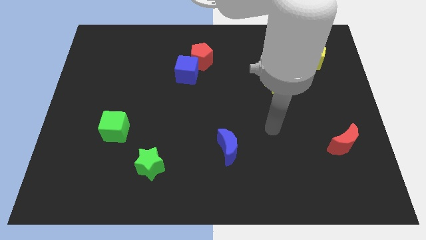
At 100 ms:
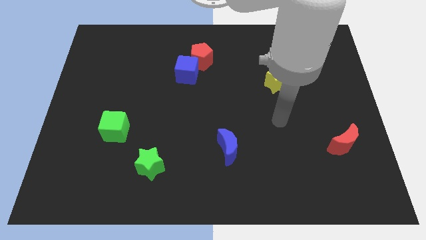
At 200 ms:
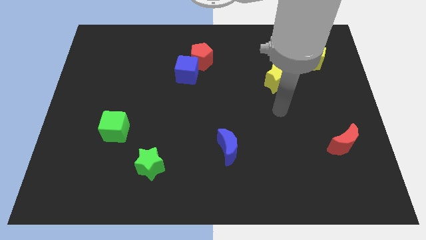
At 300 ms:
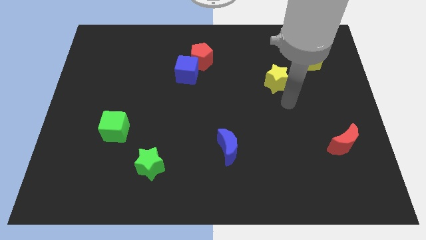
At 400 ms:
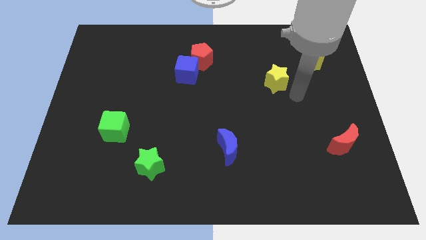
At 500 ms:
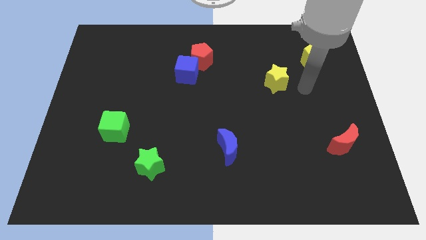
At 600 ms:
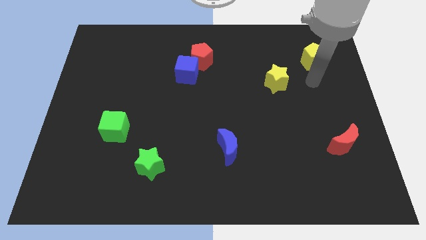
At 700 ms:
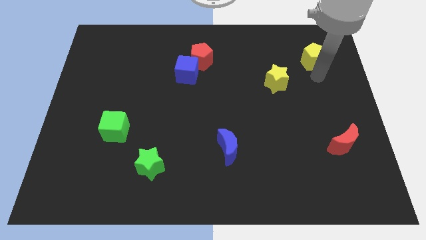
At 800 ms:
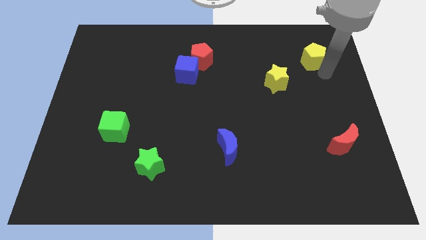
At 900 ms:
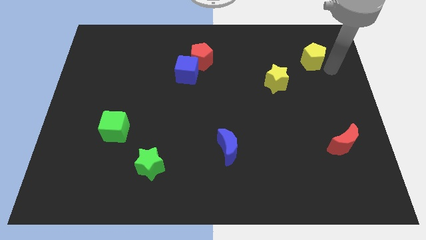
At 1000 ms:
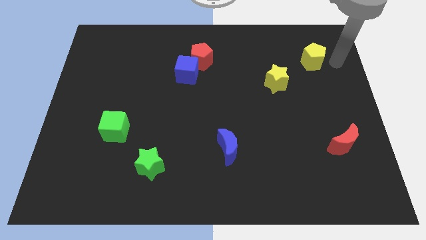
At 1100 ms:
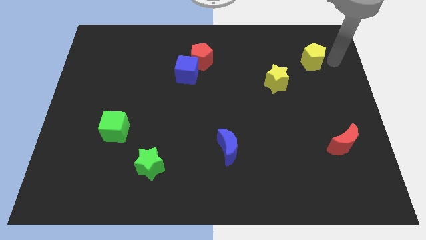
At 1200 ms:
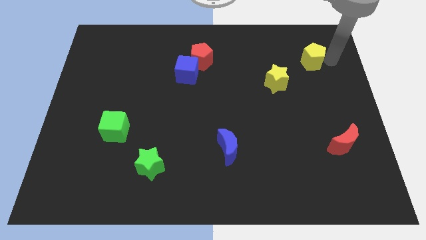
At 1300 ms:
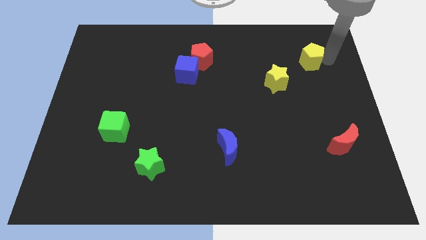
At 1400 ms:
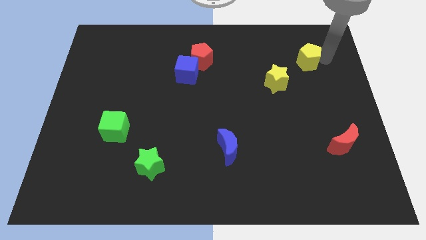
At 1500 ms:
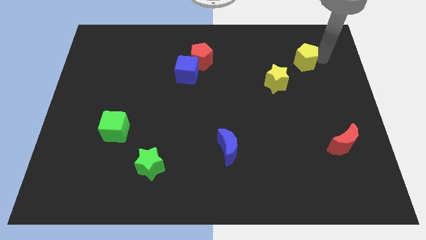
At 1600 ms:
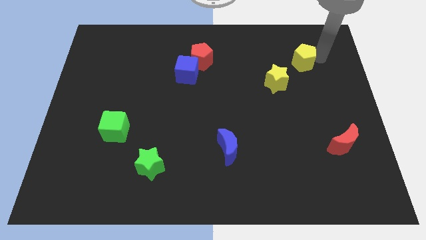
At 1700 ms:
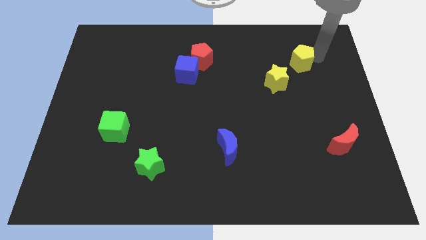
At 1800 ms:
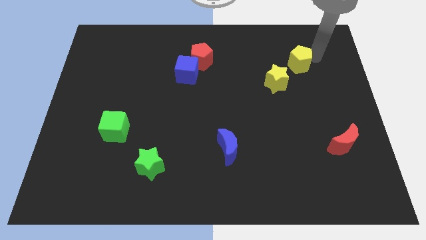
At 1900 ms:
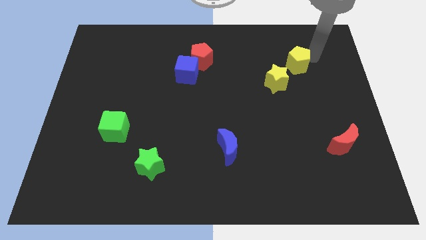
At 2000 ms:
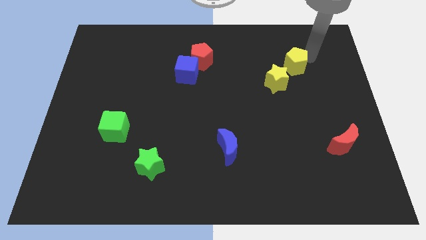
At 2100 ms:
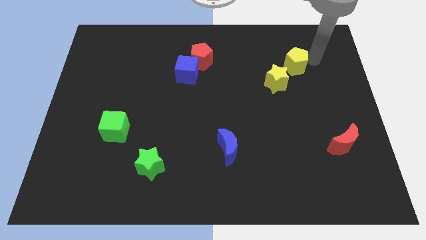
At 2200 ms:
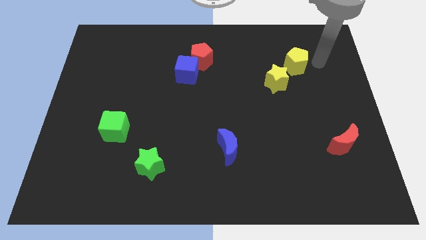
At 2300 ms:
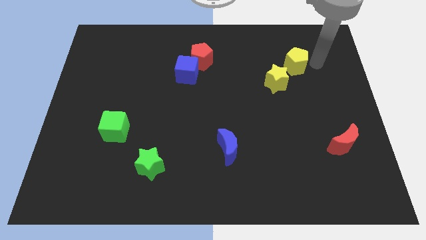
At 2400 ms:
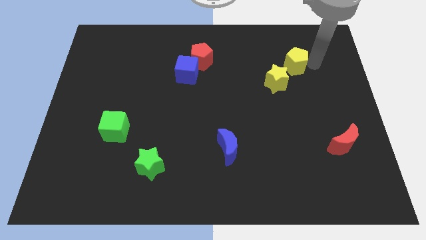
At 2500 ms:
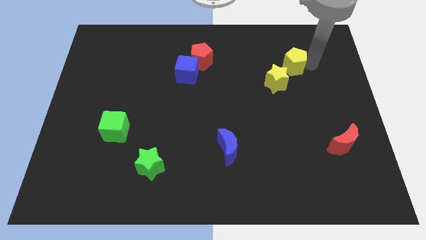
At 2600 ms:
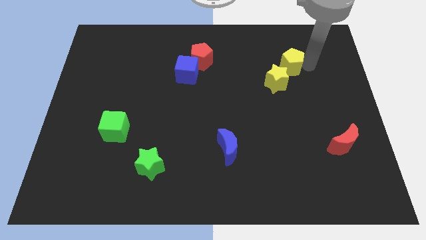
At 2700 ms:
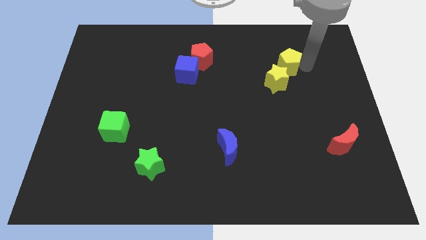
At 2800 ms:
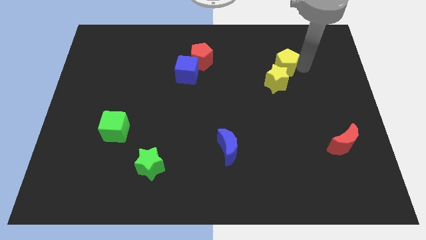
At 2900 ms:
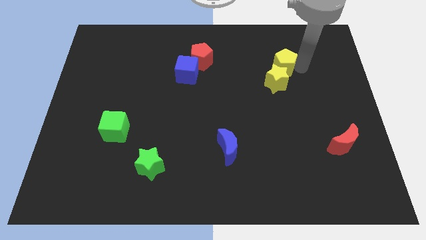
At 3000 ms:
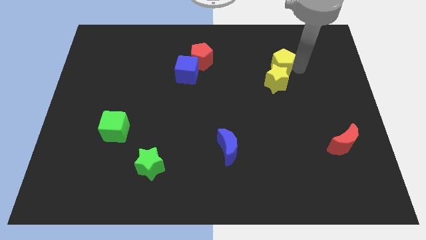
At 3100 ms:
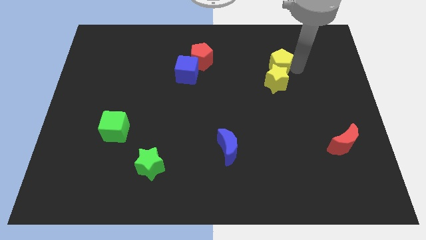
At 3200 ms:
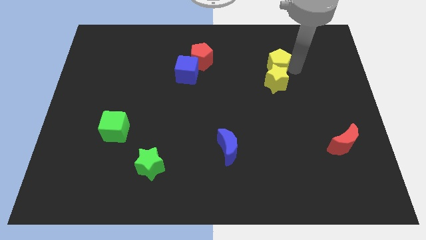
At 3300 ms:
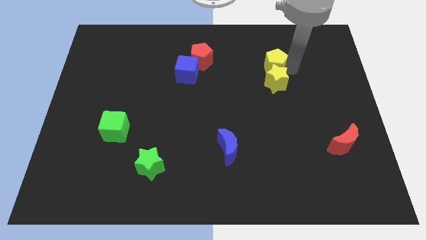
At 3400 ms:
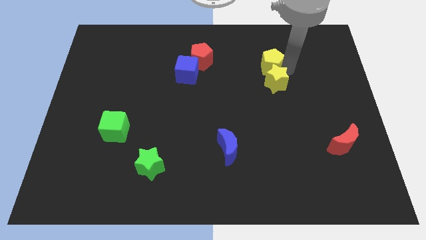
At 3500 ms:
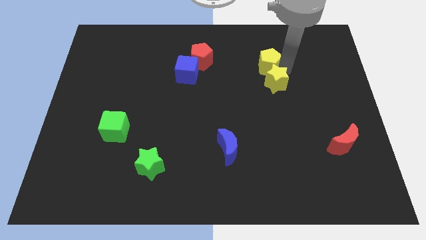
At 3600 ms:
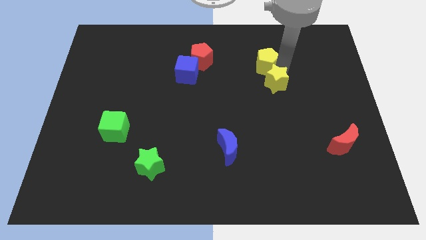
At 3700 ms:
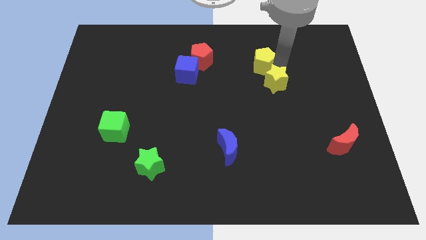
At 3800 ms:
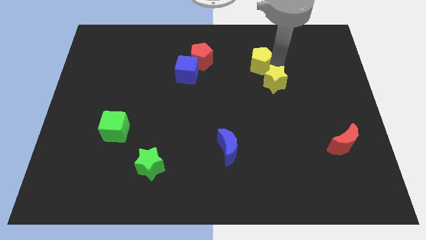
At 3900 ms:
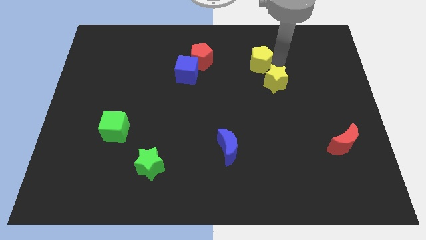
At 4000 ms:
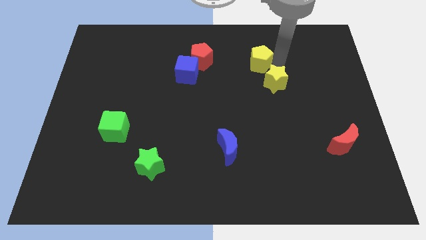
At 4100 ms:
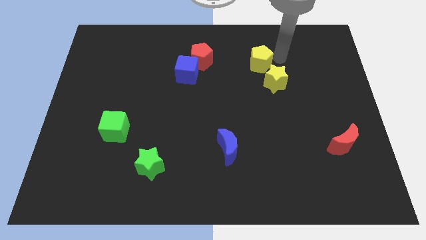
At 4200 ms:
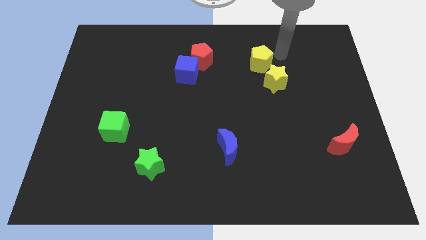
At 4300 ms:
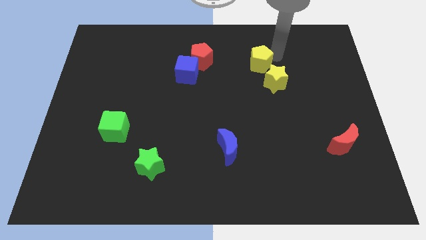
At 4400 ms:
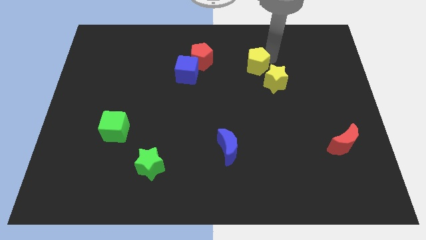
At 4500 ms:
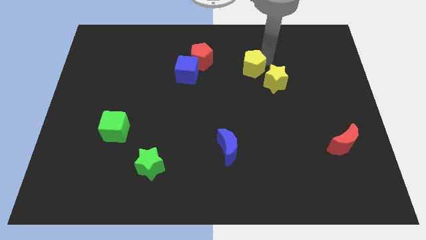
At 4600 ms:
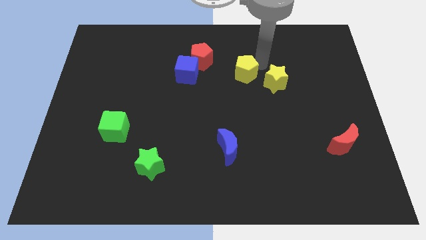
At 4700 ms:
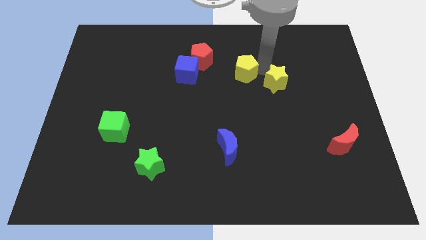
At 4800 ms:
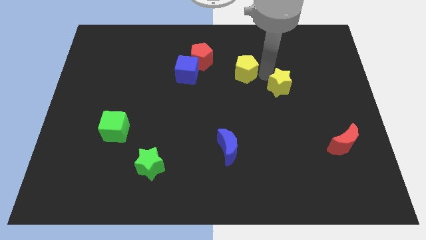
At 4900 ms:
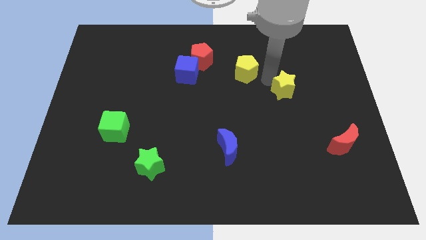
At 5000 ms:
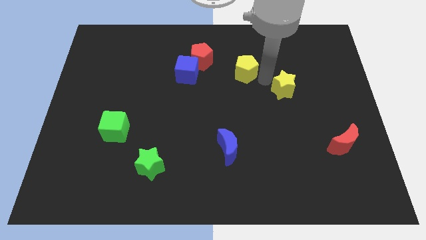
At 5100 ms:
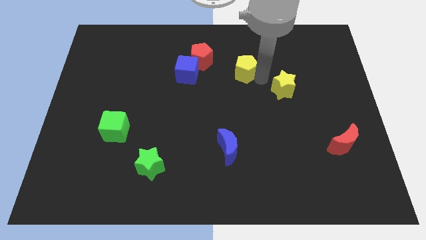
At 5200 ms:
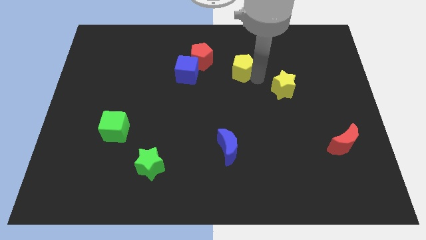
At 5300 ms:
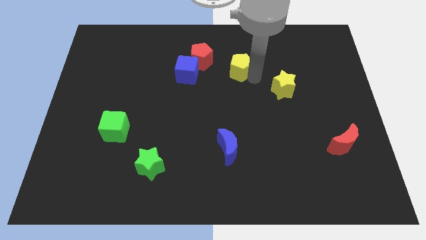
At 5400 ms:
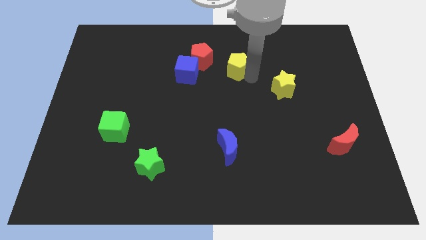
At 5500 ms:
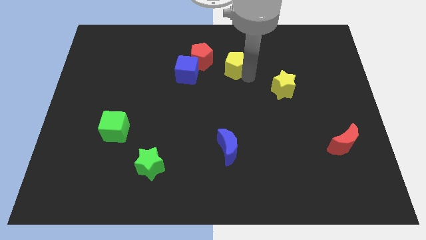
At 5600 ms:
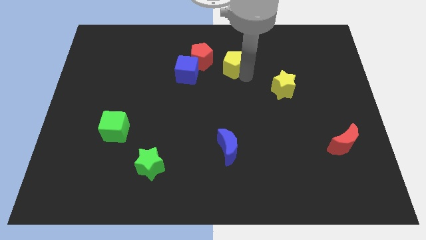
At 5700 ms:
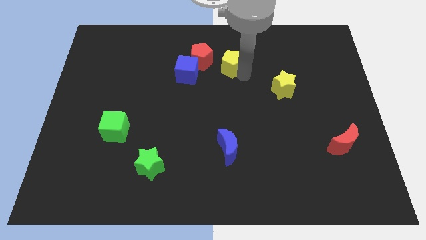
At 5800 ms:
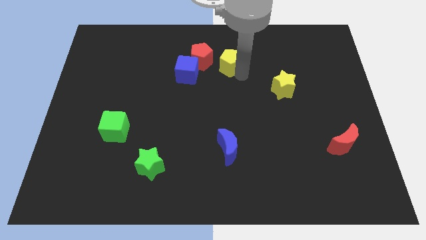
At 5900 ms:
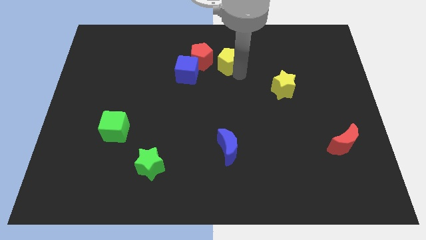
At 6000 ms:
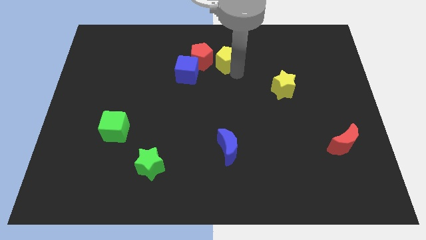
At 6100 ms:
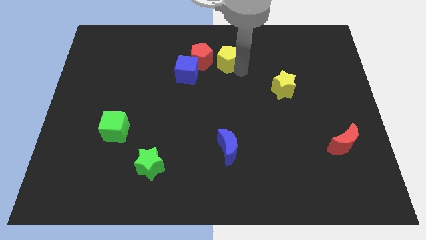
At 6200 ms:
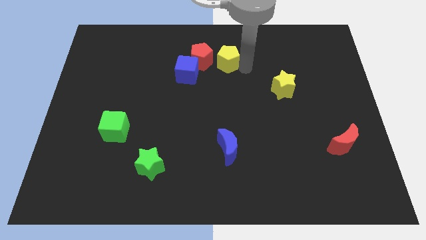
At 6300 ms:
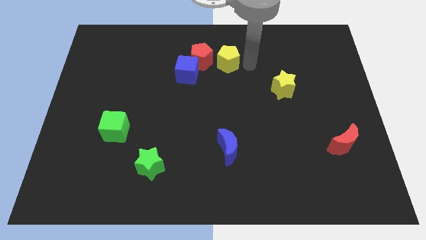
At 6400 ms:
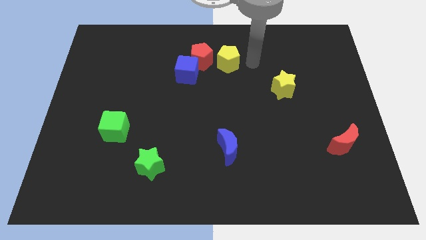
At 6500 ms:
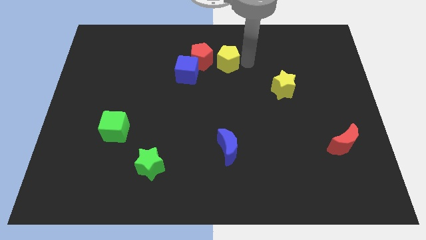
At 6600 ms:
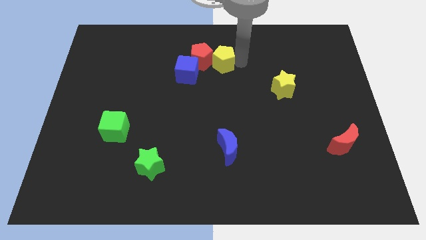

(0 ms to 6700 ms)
put the yellow pentagon next to the red pentagon

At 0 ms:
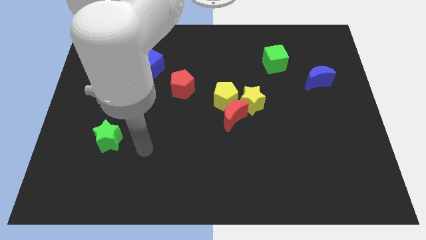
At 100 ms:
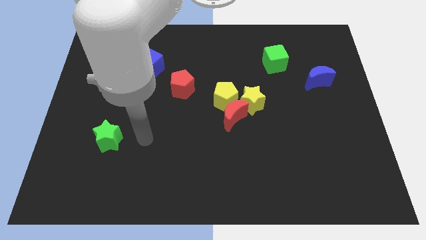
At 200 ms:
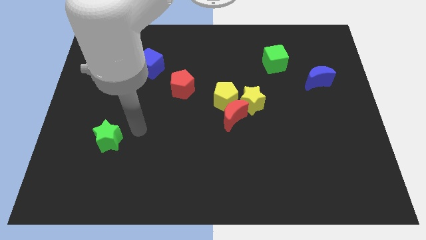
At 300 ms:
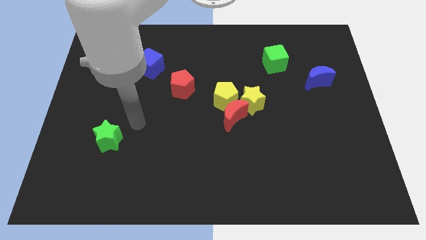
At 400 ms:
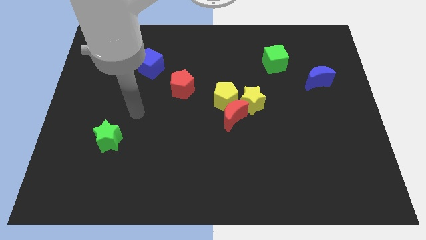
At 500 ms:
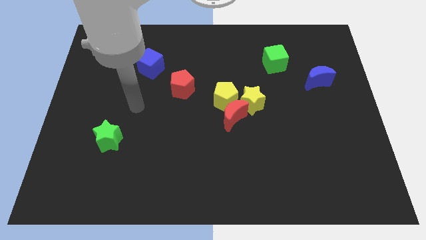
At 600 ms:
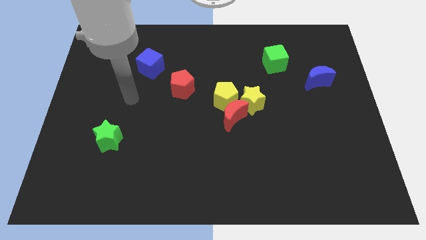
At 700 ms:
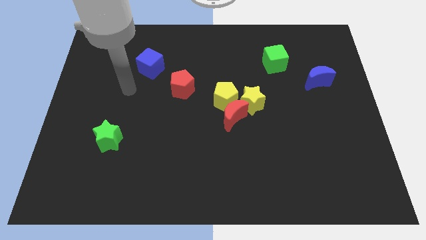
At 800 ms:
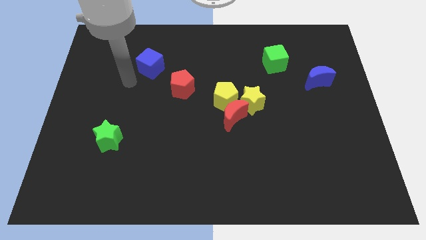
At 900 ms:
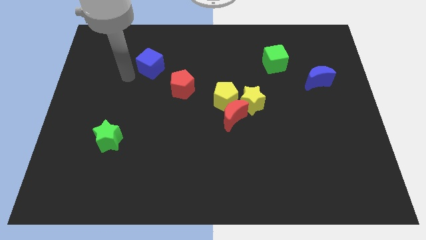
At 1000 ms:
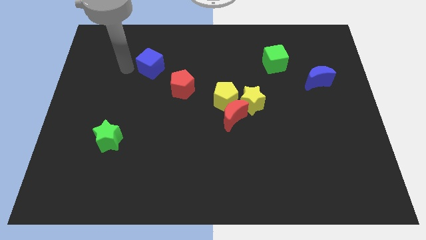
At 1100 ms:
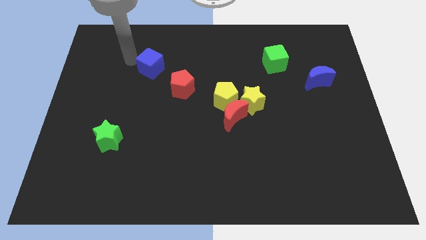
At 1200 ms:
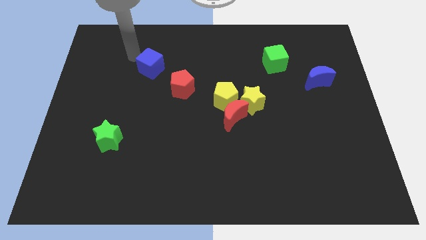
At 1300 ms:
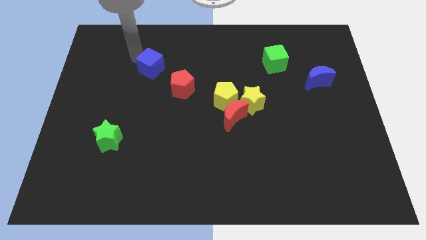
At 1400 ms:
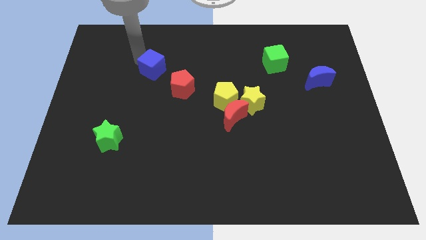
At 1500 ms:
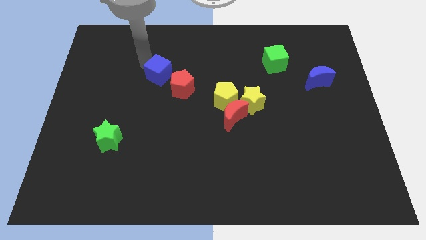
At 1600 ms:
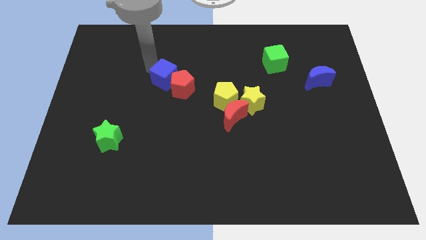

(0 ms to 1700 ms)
put the blue cube towards the red pentagon
